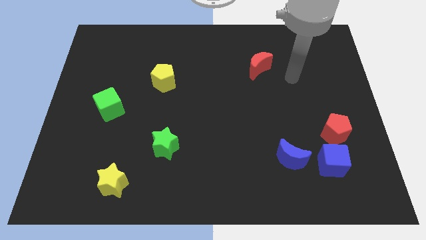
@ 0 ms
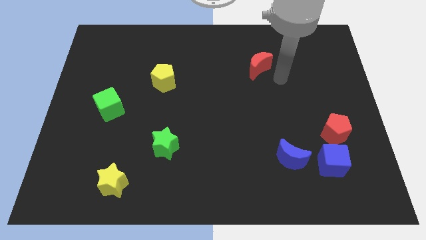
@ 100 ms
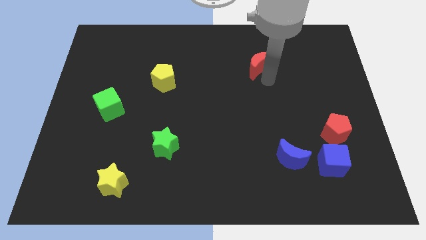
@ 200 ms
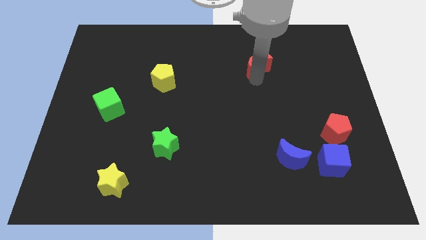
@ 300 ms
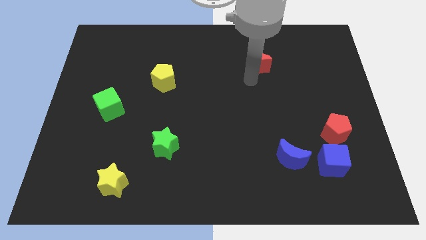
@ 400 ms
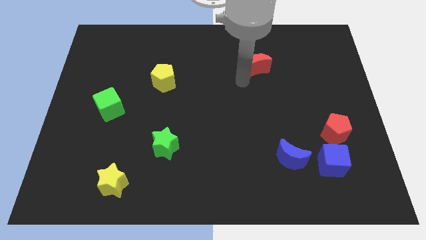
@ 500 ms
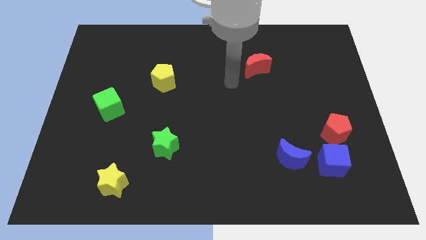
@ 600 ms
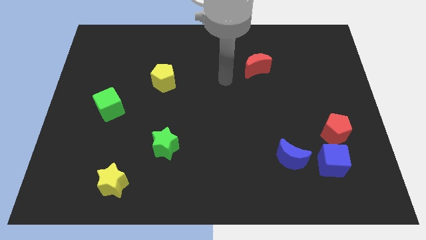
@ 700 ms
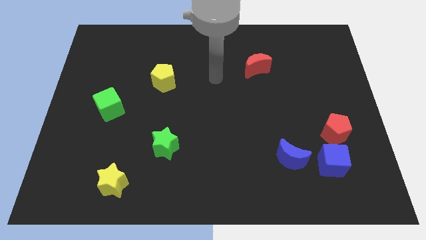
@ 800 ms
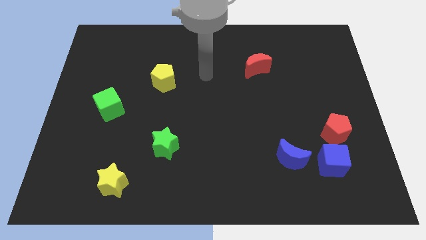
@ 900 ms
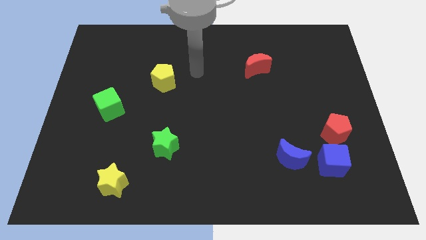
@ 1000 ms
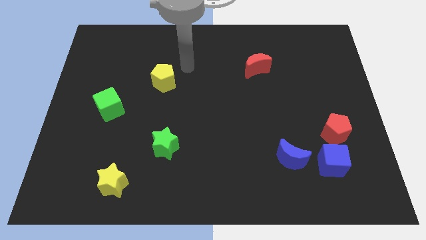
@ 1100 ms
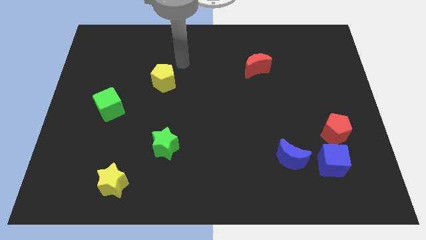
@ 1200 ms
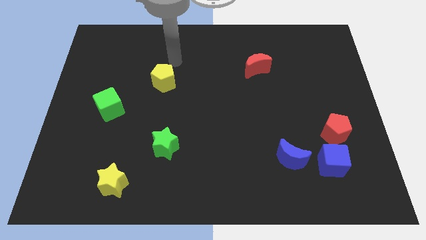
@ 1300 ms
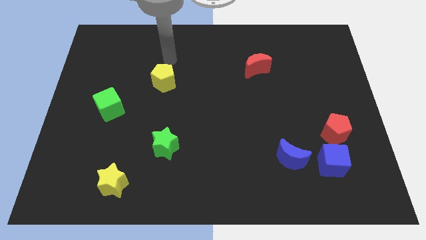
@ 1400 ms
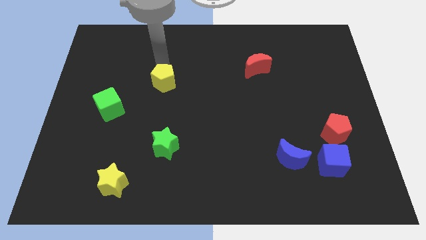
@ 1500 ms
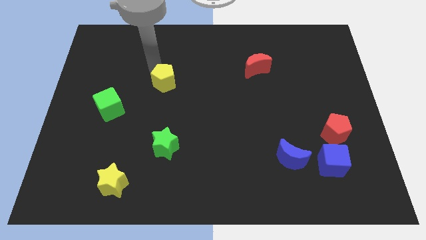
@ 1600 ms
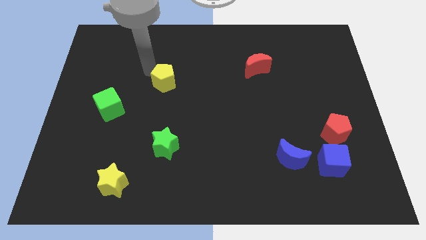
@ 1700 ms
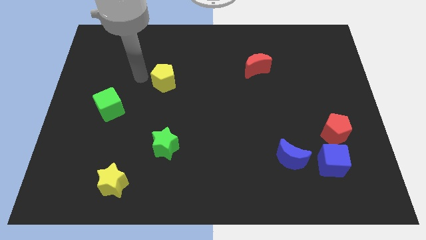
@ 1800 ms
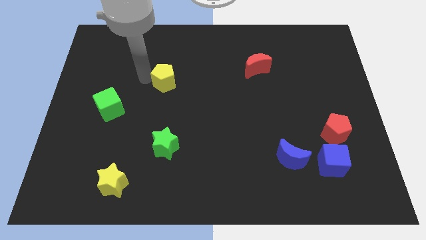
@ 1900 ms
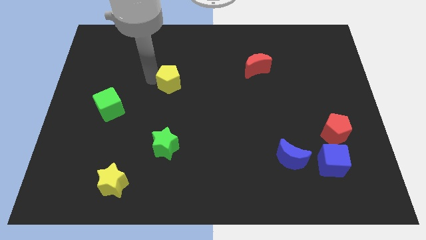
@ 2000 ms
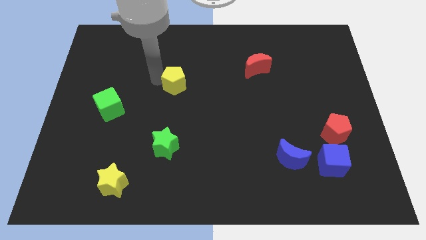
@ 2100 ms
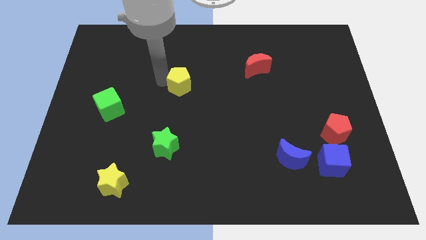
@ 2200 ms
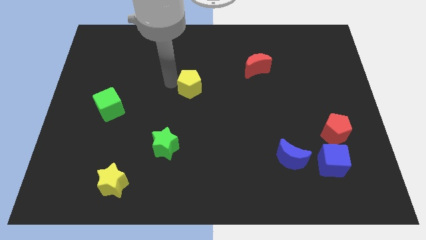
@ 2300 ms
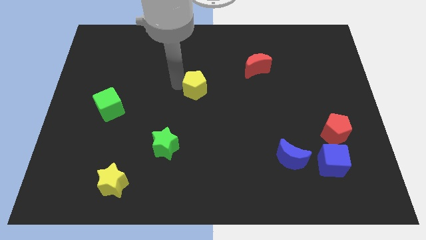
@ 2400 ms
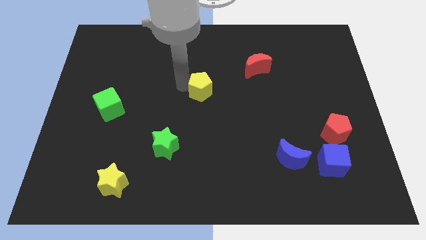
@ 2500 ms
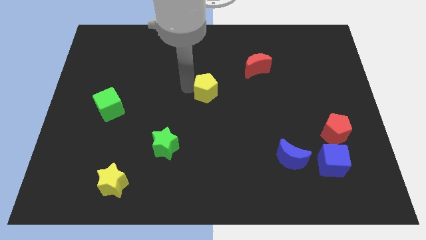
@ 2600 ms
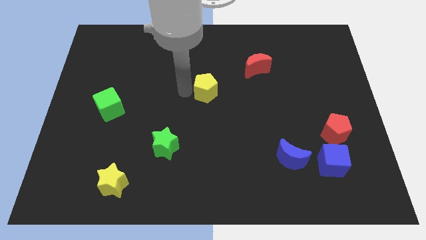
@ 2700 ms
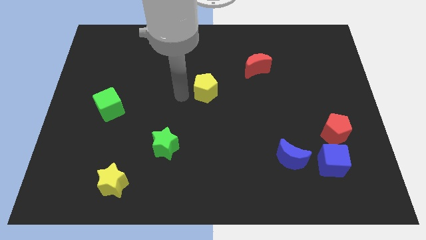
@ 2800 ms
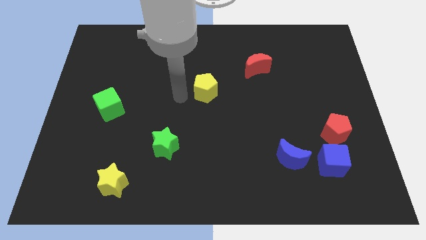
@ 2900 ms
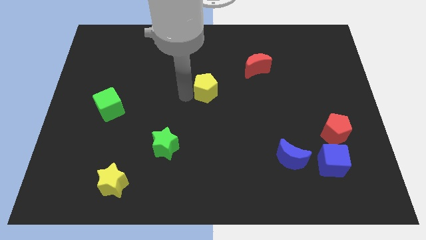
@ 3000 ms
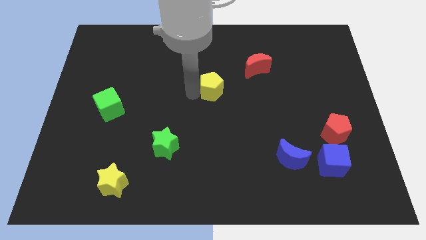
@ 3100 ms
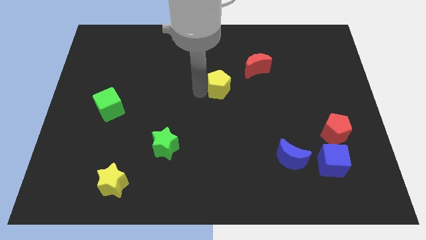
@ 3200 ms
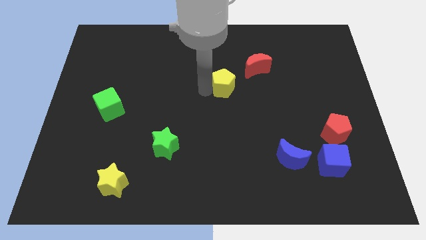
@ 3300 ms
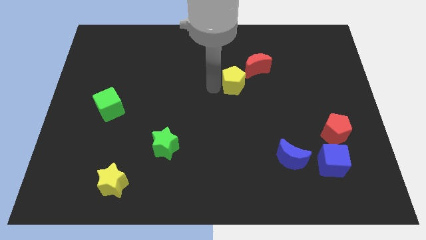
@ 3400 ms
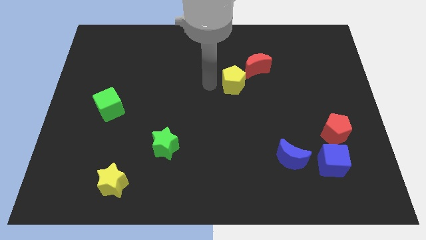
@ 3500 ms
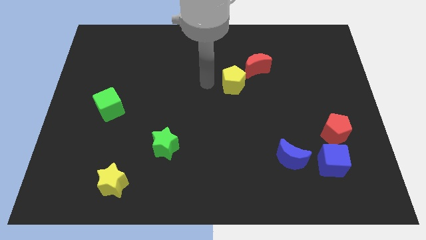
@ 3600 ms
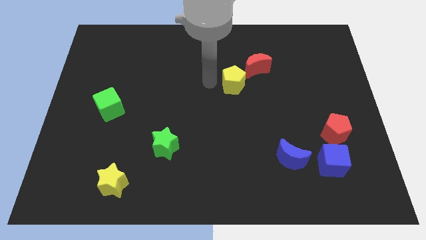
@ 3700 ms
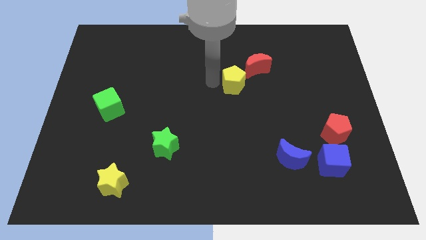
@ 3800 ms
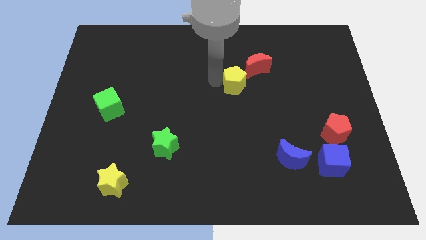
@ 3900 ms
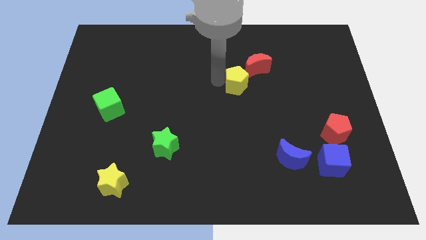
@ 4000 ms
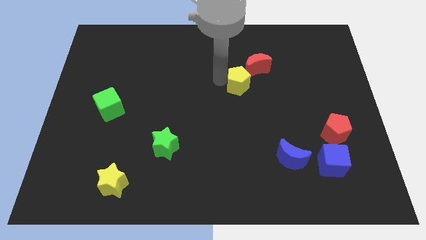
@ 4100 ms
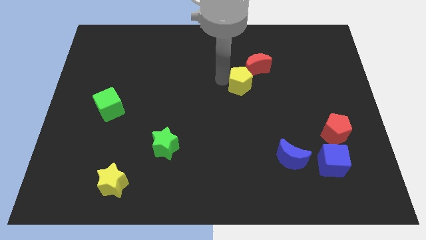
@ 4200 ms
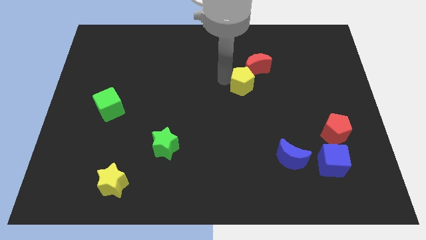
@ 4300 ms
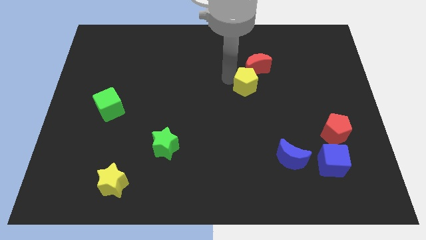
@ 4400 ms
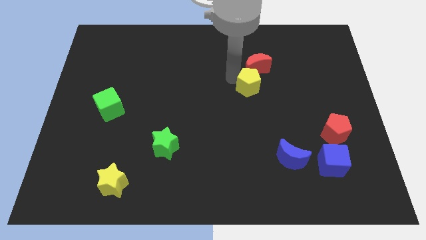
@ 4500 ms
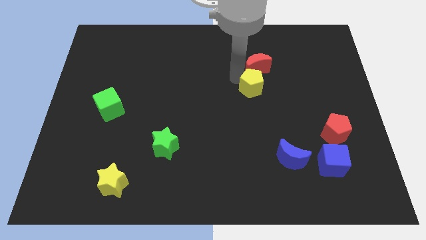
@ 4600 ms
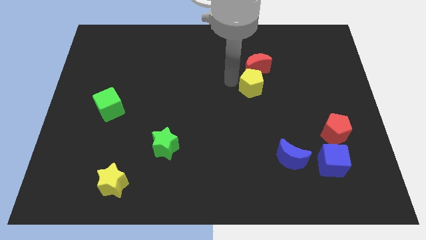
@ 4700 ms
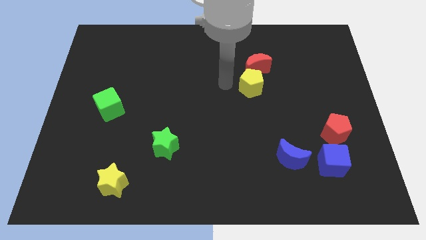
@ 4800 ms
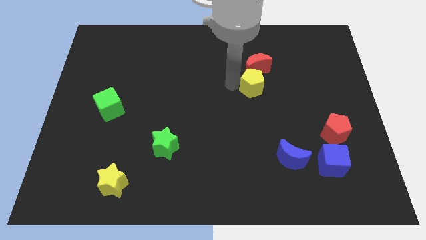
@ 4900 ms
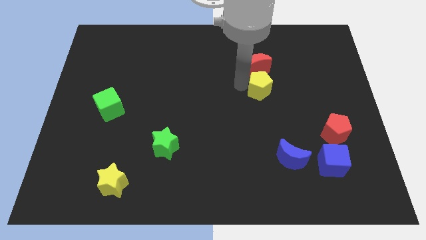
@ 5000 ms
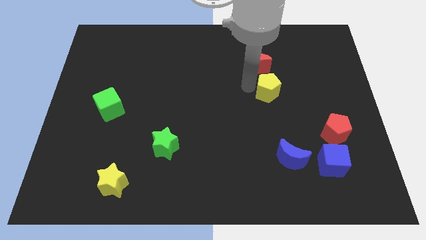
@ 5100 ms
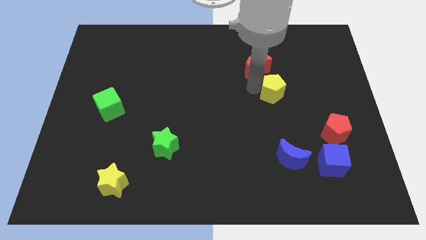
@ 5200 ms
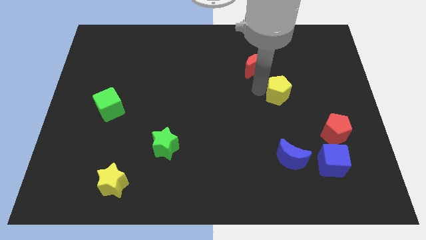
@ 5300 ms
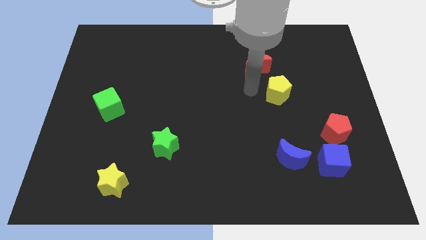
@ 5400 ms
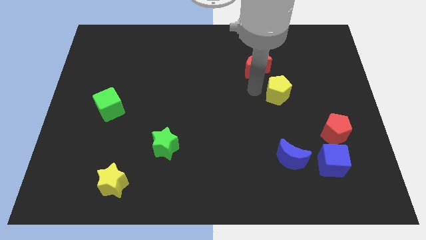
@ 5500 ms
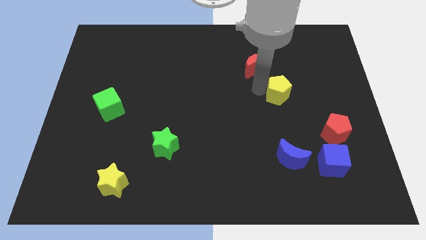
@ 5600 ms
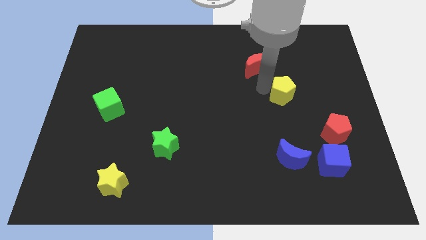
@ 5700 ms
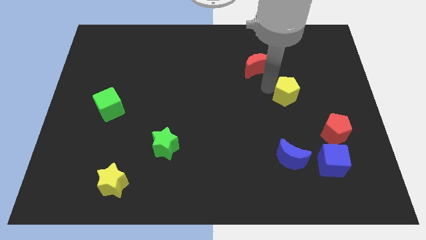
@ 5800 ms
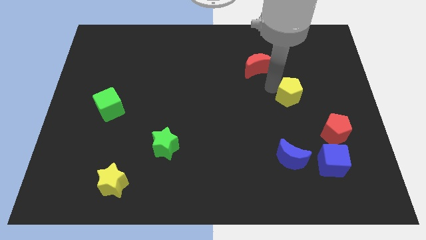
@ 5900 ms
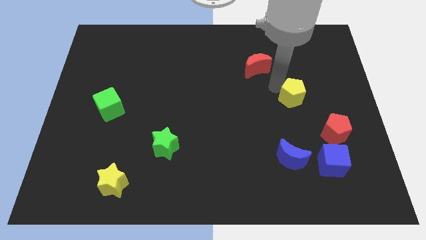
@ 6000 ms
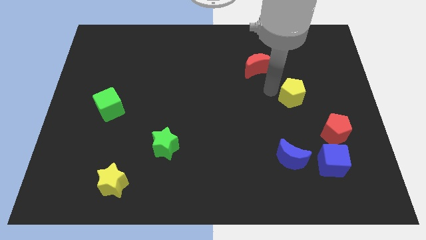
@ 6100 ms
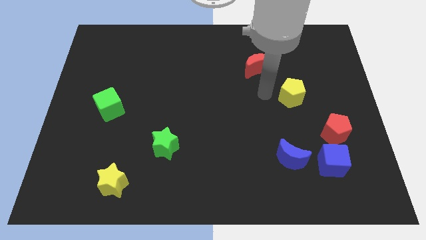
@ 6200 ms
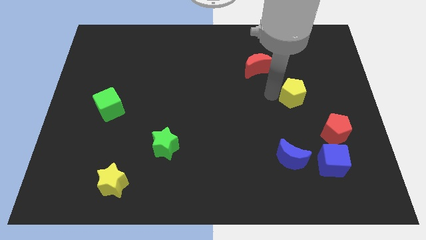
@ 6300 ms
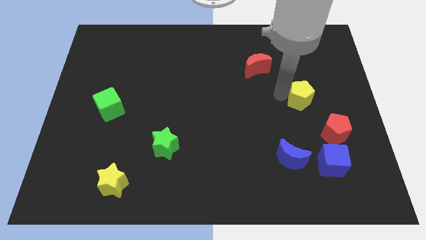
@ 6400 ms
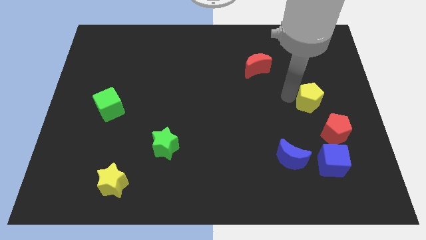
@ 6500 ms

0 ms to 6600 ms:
slide the yellow pentagon to the top side of the red pentagon
